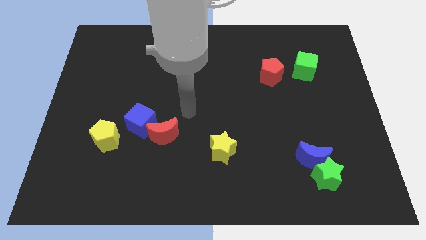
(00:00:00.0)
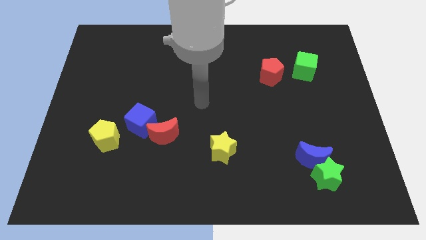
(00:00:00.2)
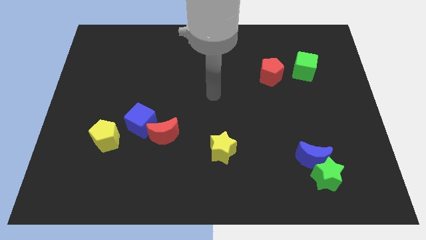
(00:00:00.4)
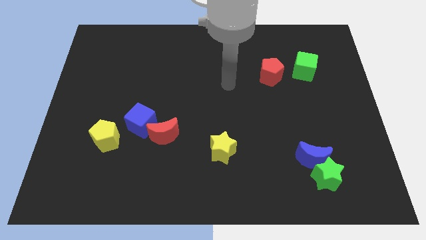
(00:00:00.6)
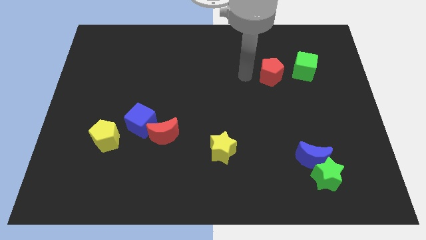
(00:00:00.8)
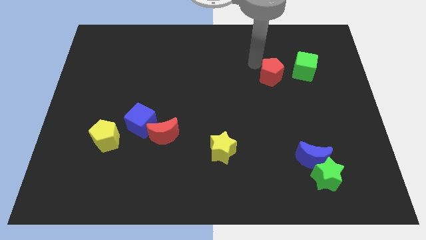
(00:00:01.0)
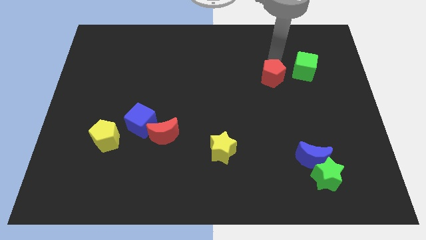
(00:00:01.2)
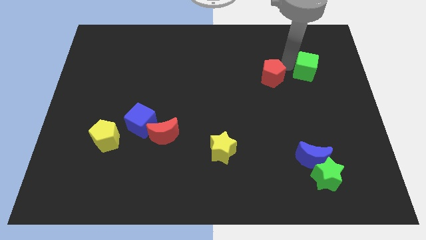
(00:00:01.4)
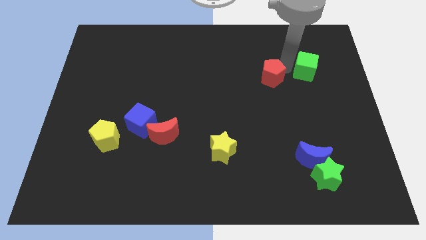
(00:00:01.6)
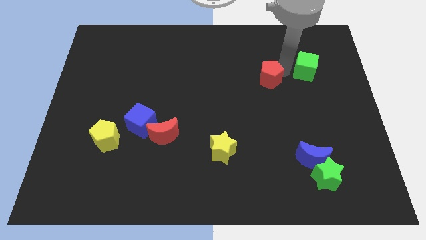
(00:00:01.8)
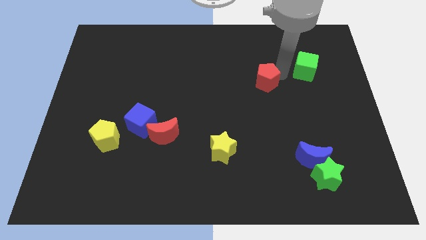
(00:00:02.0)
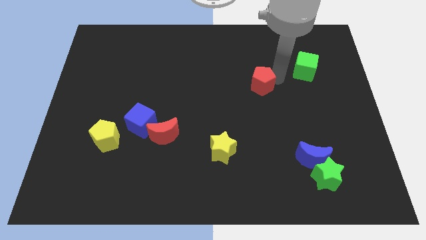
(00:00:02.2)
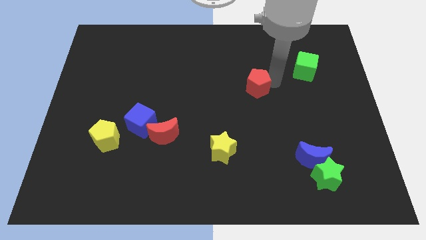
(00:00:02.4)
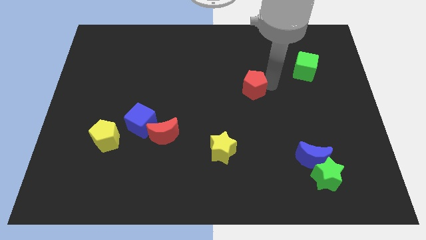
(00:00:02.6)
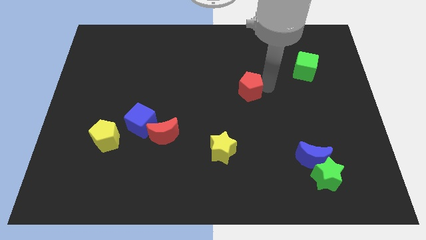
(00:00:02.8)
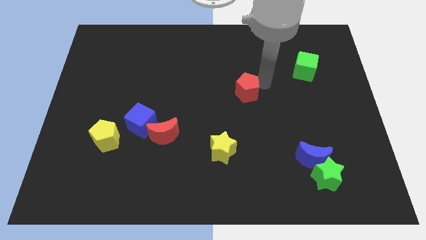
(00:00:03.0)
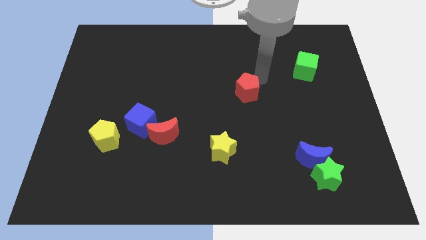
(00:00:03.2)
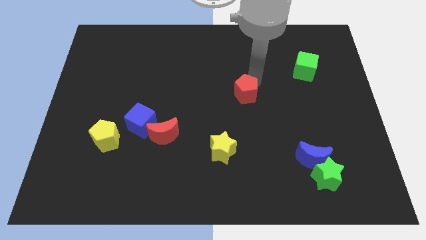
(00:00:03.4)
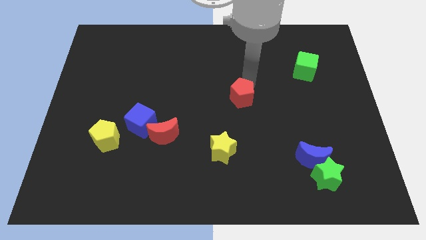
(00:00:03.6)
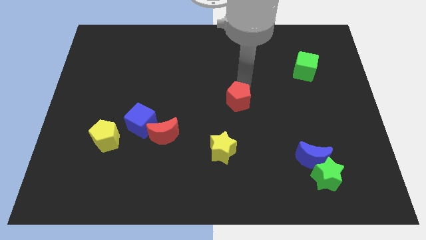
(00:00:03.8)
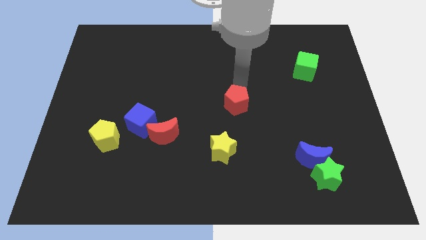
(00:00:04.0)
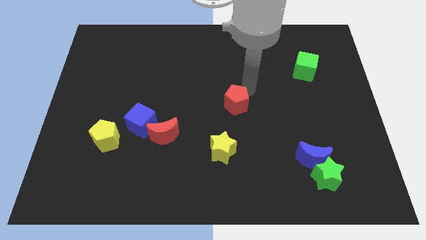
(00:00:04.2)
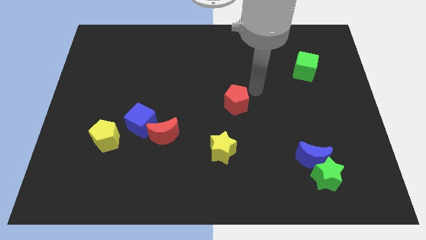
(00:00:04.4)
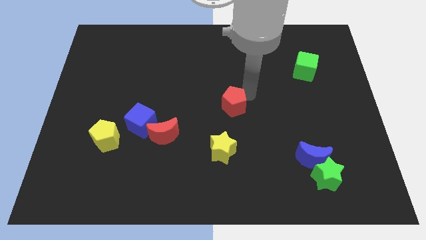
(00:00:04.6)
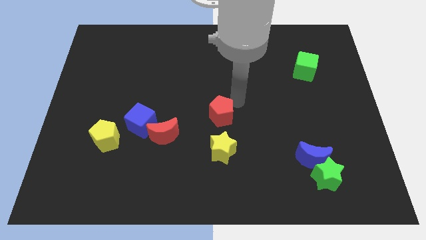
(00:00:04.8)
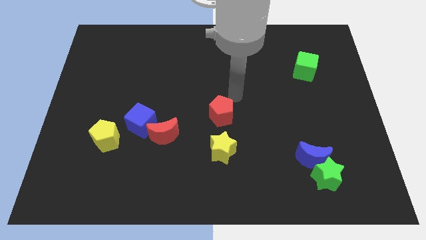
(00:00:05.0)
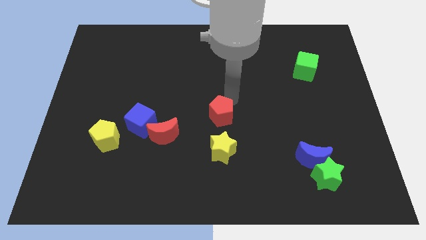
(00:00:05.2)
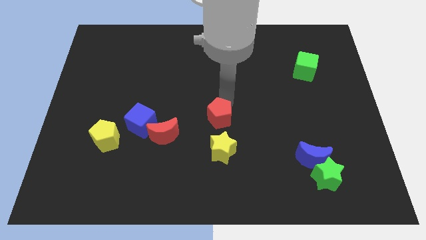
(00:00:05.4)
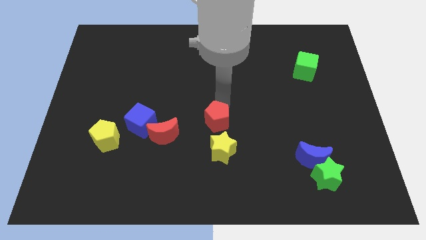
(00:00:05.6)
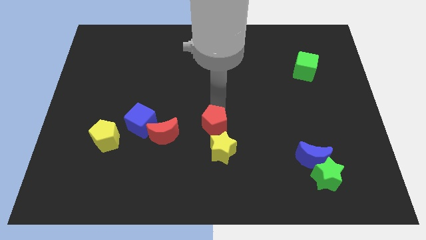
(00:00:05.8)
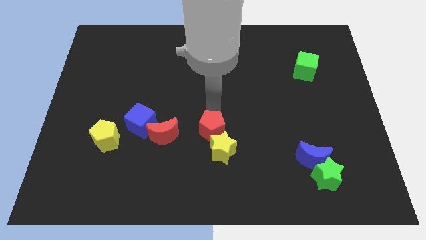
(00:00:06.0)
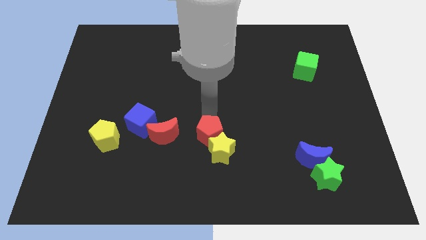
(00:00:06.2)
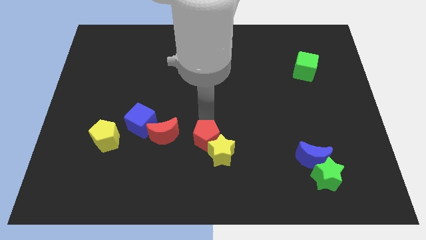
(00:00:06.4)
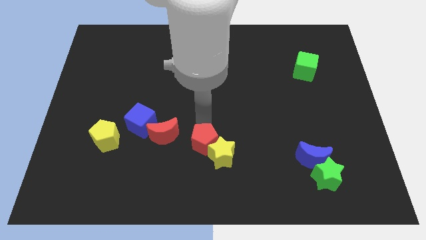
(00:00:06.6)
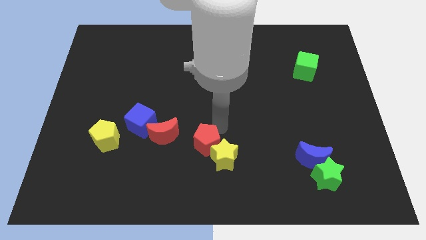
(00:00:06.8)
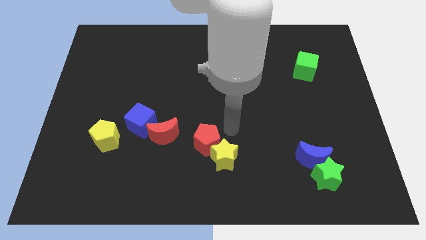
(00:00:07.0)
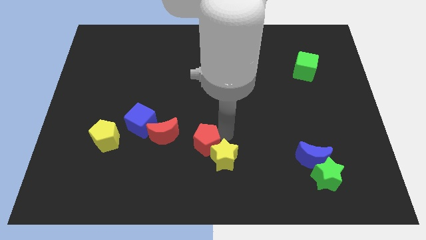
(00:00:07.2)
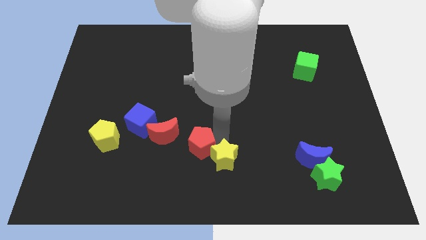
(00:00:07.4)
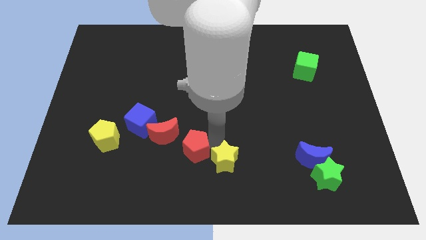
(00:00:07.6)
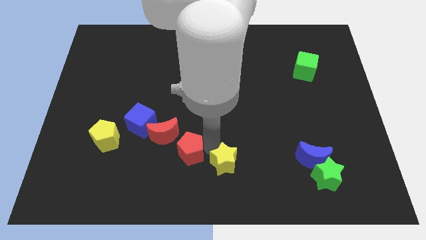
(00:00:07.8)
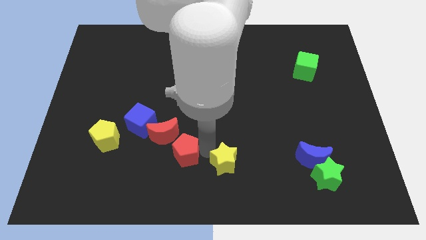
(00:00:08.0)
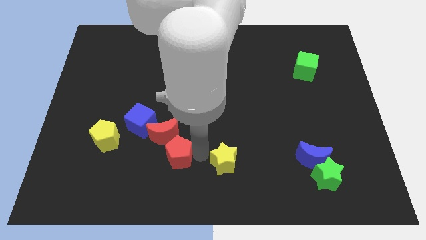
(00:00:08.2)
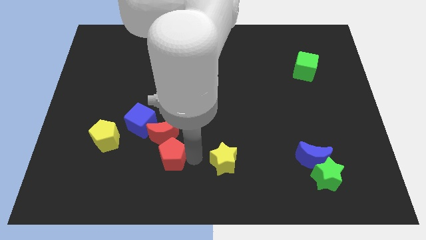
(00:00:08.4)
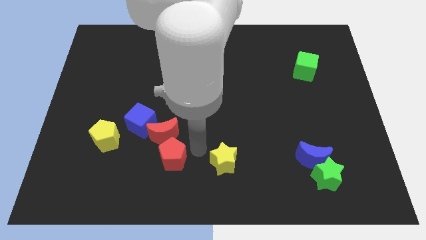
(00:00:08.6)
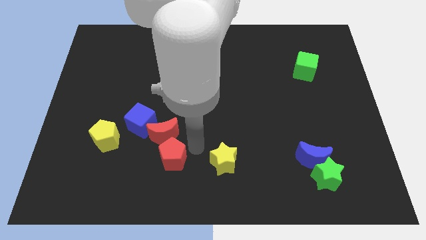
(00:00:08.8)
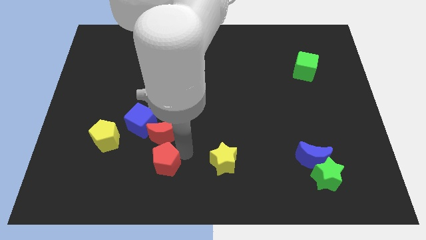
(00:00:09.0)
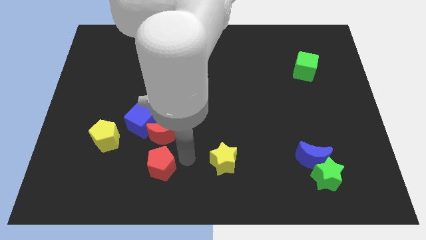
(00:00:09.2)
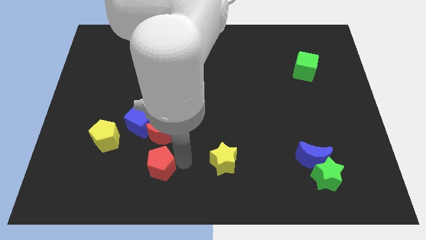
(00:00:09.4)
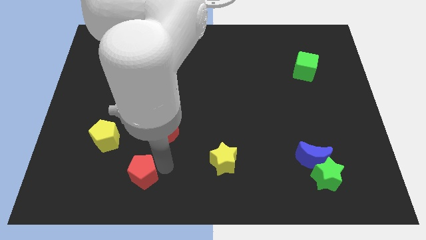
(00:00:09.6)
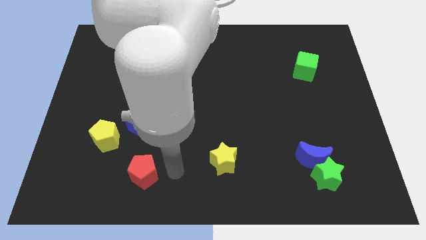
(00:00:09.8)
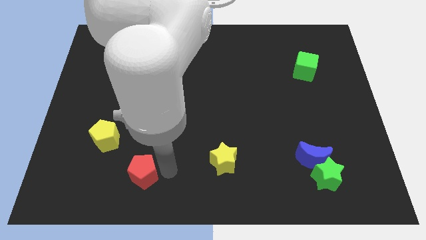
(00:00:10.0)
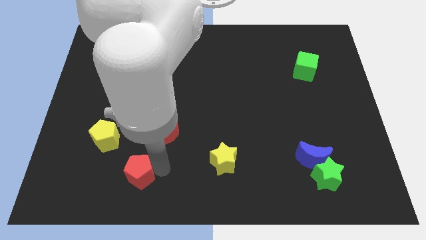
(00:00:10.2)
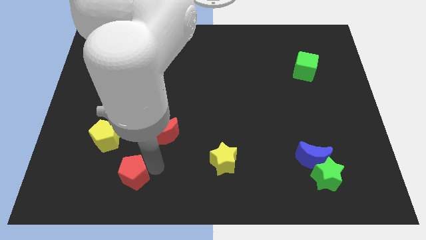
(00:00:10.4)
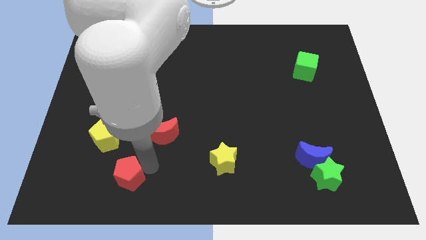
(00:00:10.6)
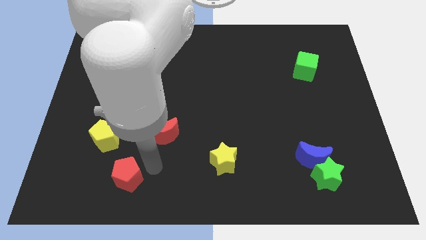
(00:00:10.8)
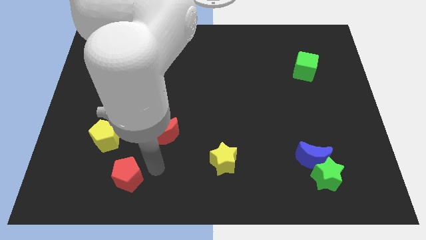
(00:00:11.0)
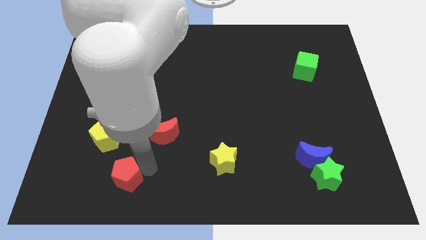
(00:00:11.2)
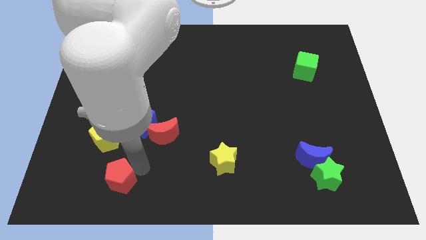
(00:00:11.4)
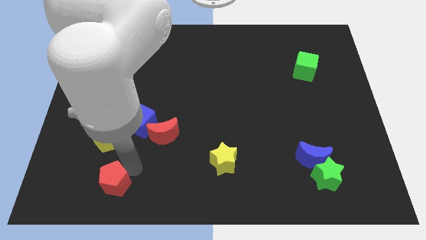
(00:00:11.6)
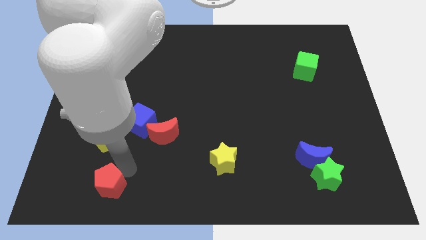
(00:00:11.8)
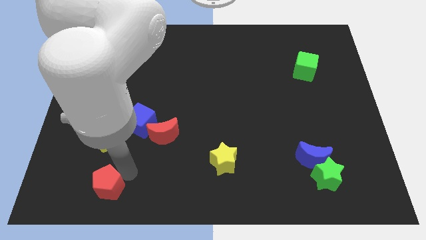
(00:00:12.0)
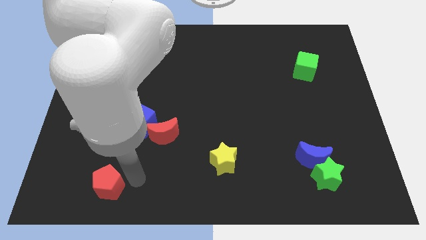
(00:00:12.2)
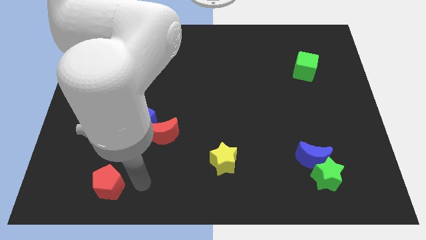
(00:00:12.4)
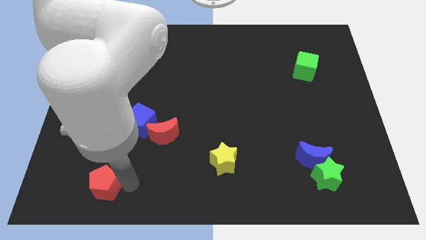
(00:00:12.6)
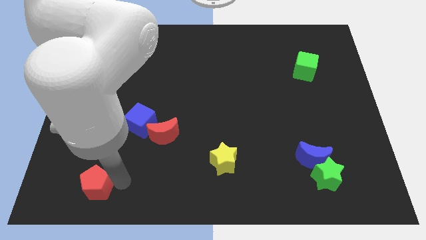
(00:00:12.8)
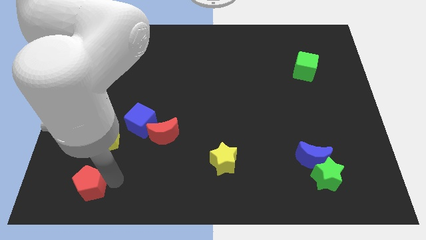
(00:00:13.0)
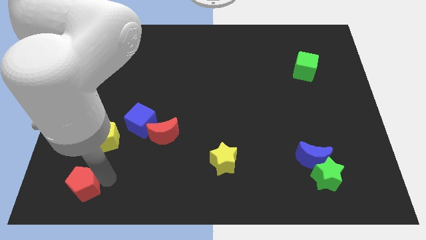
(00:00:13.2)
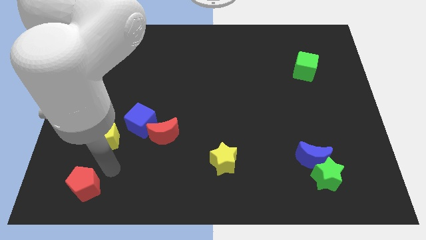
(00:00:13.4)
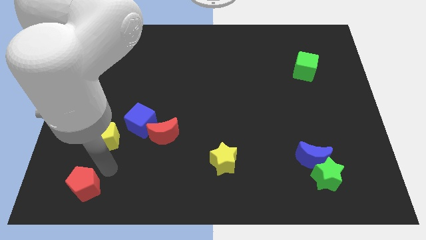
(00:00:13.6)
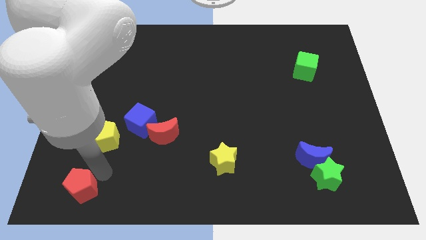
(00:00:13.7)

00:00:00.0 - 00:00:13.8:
push the red pentagon to the bottom left corner
